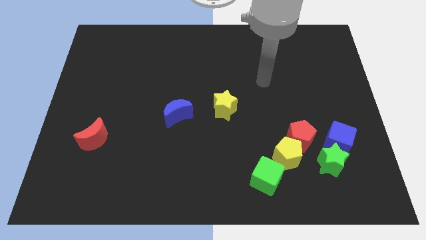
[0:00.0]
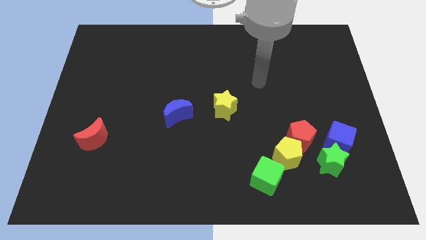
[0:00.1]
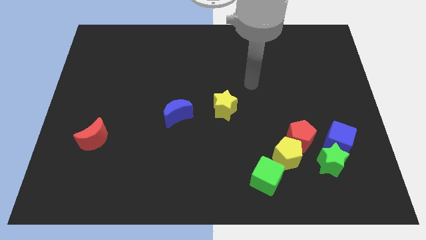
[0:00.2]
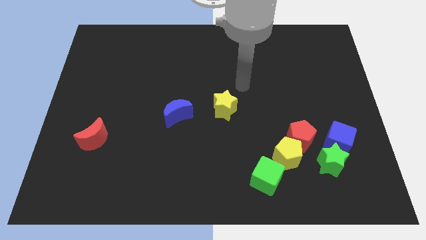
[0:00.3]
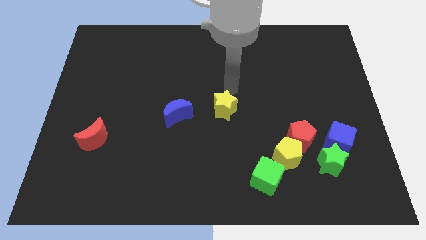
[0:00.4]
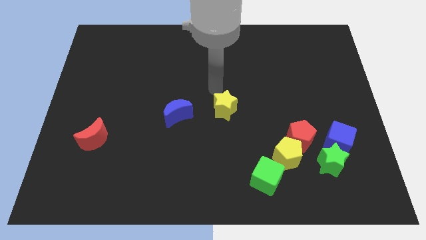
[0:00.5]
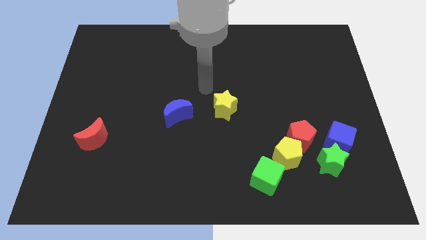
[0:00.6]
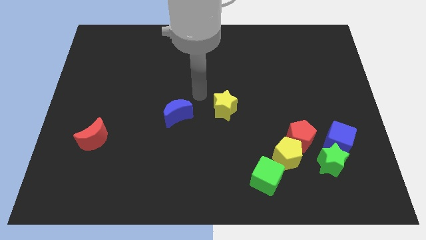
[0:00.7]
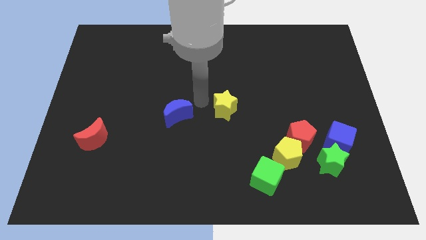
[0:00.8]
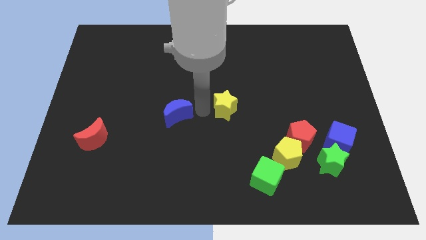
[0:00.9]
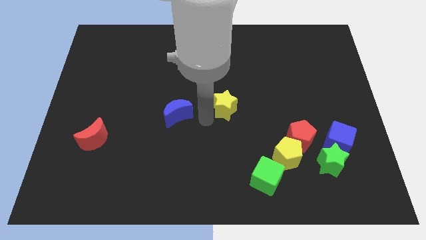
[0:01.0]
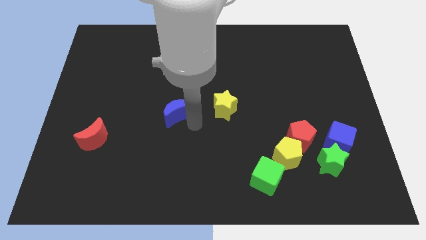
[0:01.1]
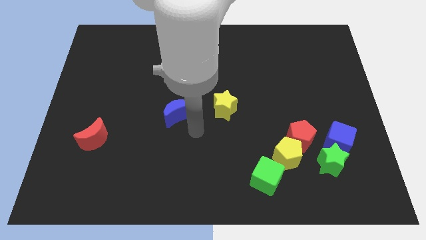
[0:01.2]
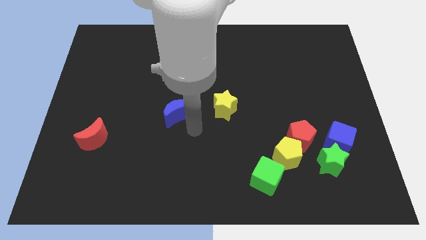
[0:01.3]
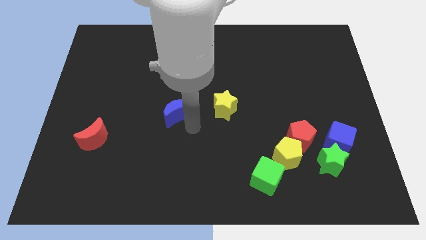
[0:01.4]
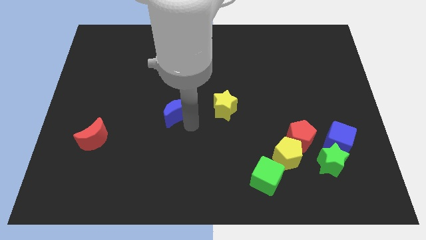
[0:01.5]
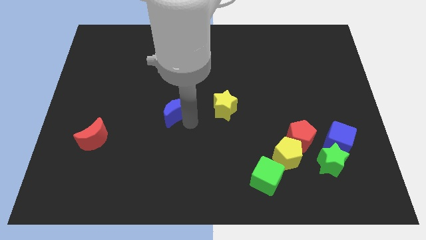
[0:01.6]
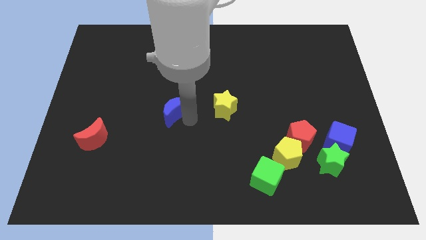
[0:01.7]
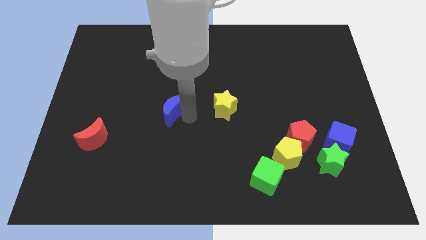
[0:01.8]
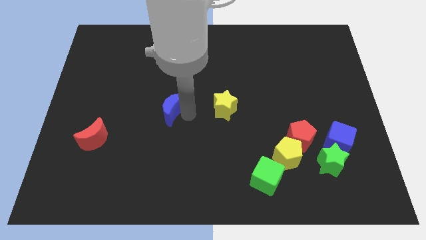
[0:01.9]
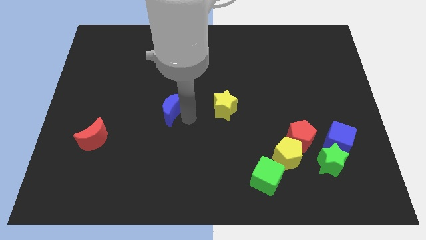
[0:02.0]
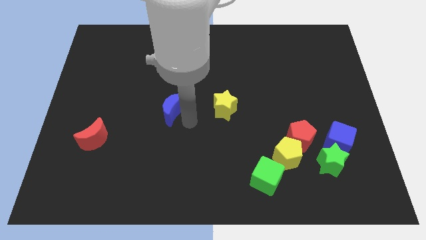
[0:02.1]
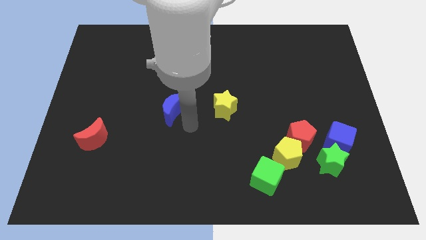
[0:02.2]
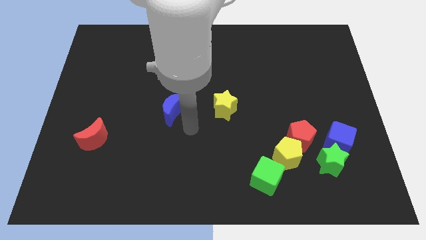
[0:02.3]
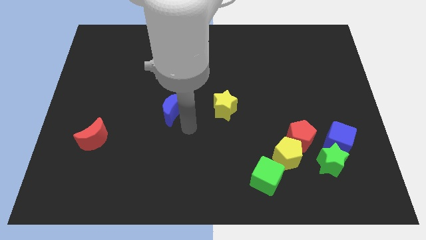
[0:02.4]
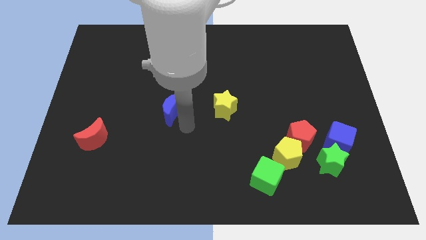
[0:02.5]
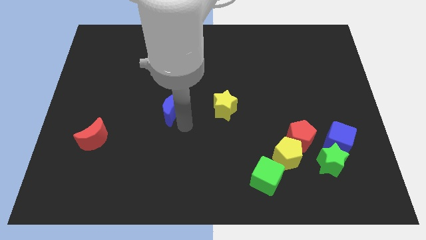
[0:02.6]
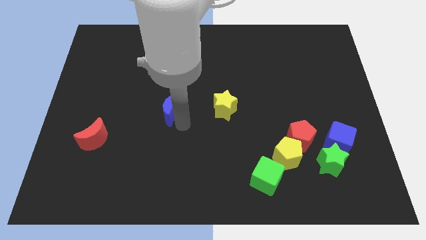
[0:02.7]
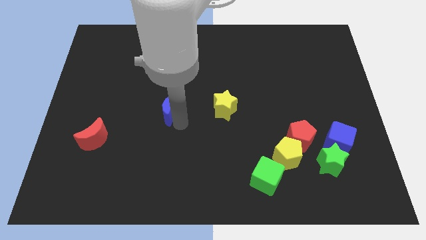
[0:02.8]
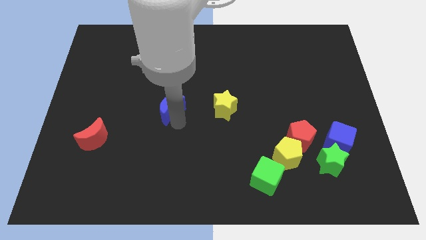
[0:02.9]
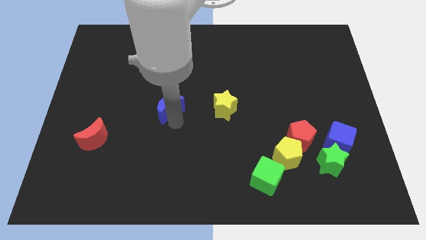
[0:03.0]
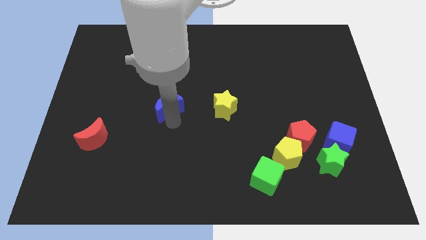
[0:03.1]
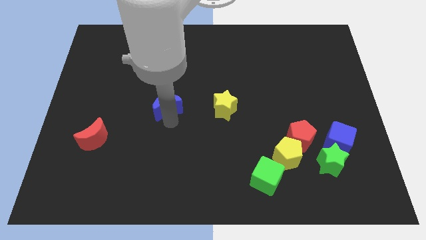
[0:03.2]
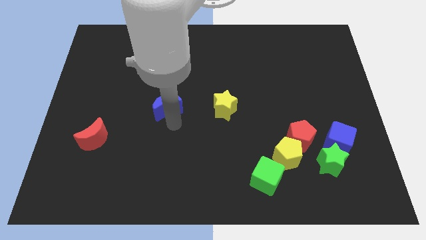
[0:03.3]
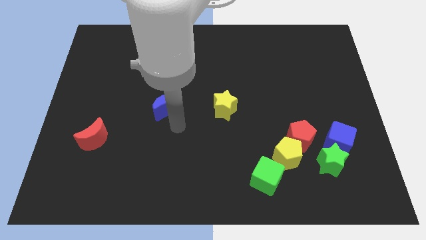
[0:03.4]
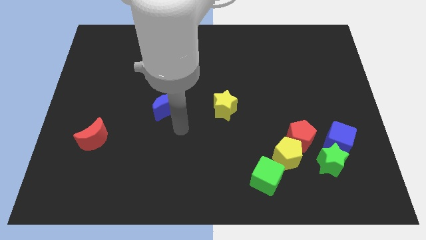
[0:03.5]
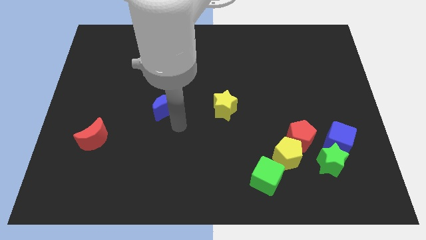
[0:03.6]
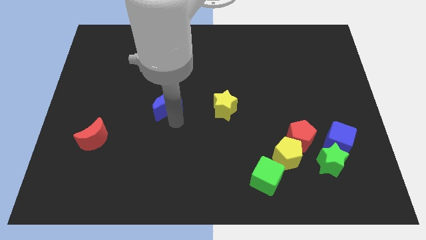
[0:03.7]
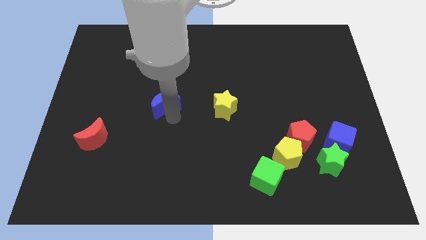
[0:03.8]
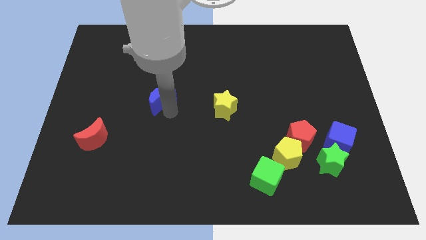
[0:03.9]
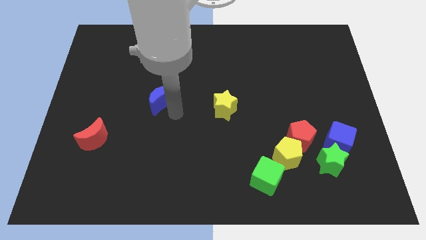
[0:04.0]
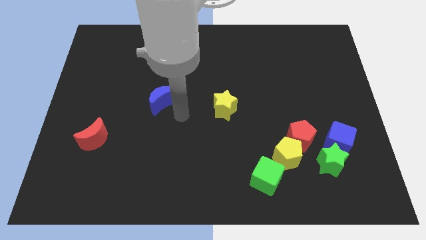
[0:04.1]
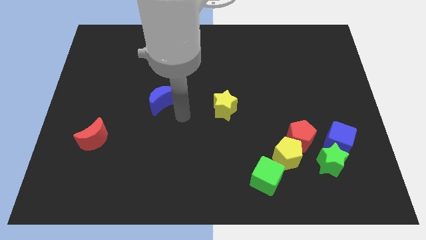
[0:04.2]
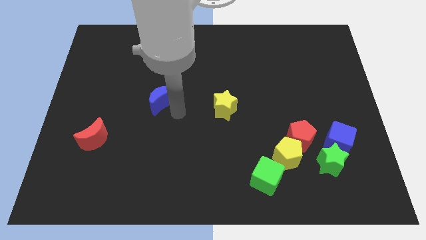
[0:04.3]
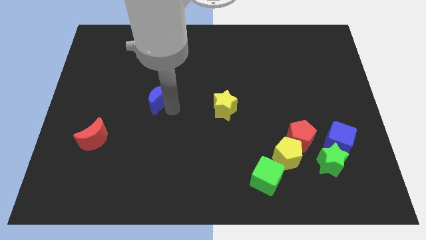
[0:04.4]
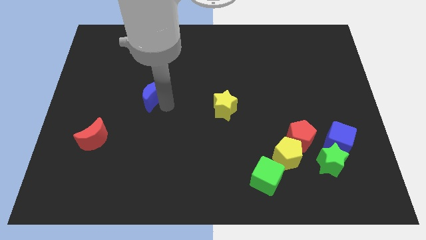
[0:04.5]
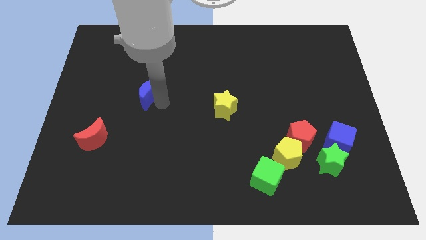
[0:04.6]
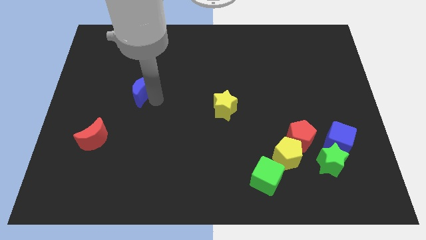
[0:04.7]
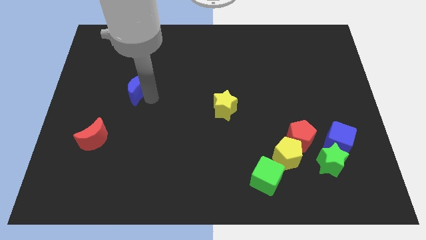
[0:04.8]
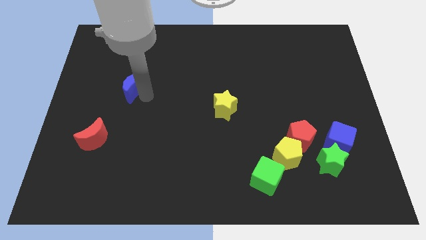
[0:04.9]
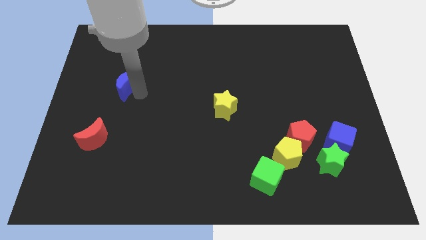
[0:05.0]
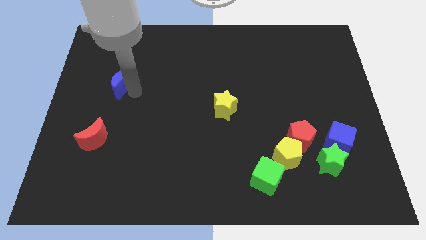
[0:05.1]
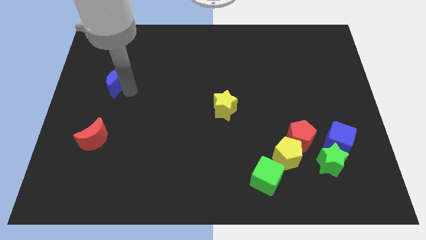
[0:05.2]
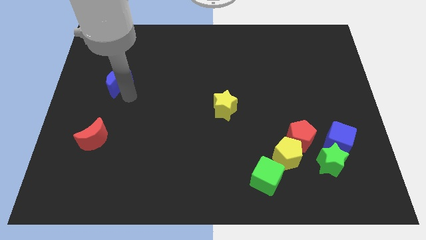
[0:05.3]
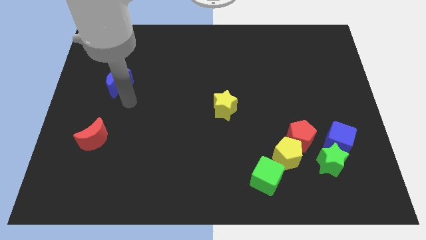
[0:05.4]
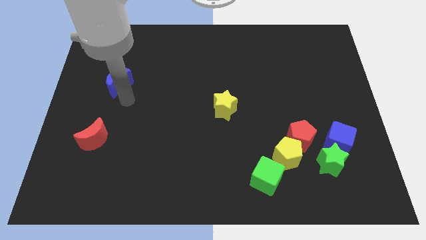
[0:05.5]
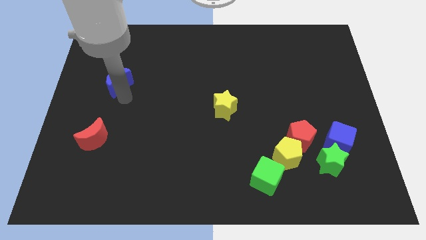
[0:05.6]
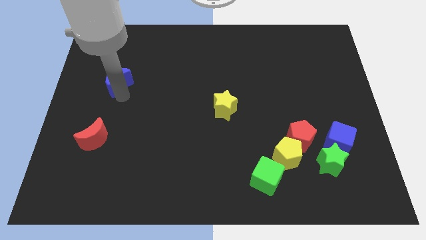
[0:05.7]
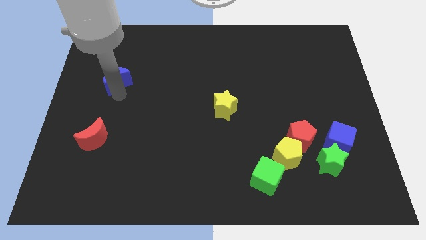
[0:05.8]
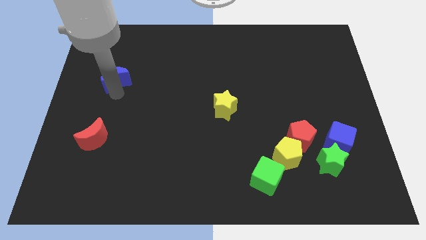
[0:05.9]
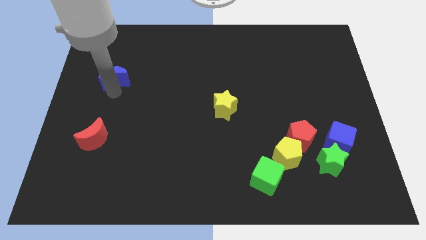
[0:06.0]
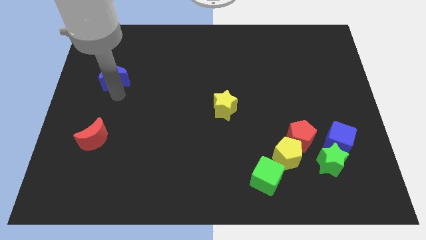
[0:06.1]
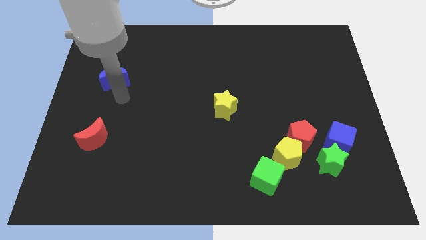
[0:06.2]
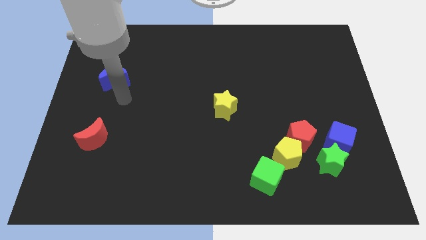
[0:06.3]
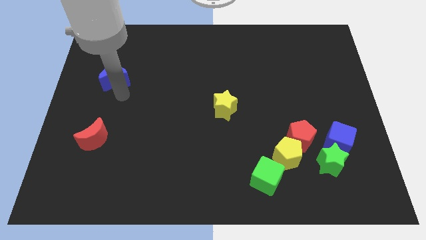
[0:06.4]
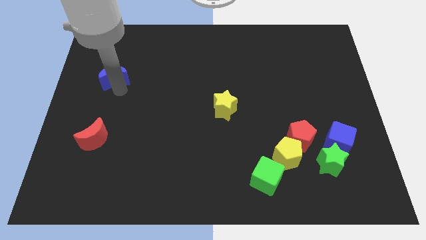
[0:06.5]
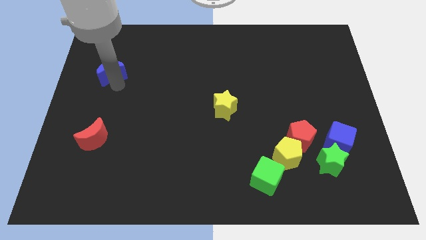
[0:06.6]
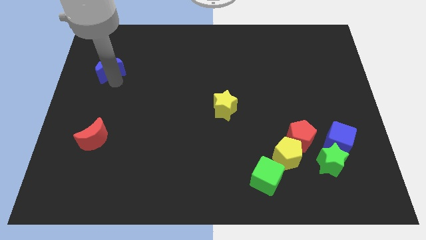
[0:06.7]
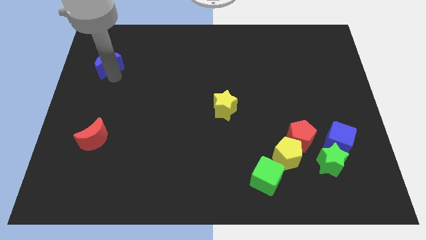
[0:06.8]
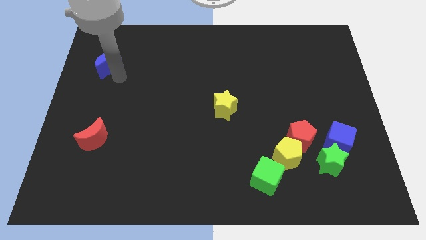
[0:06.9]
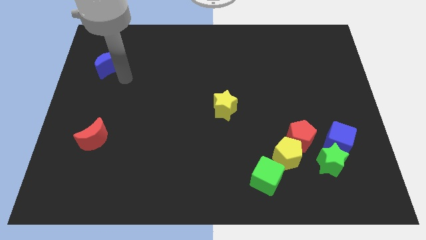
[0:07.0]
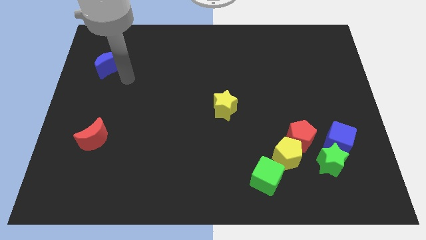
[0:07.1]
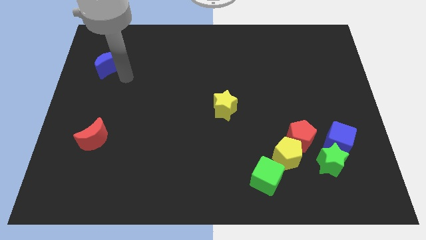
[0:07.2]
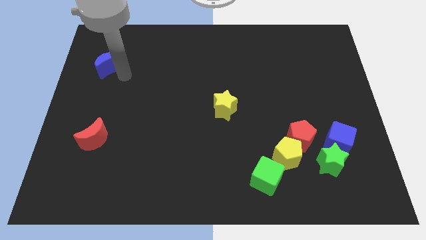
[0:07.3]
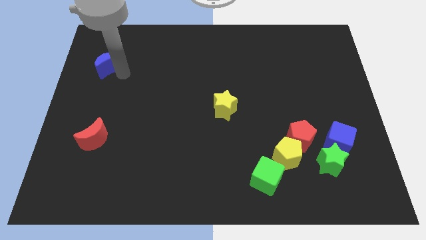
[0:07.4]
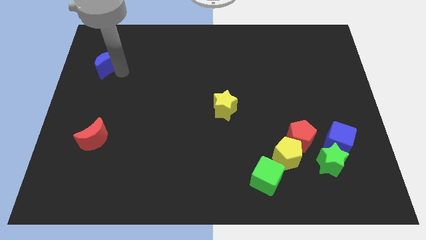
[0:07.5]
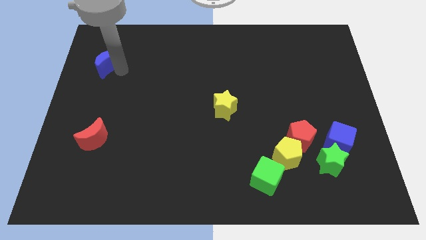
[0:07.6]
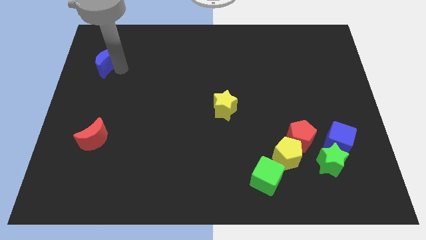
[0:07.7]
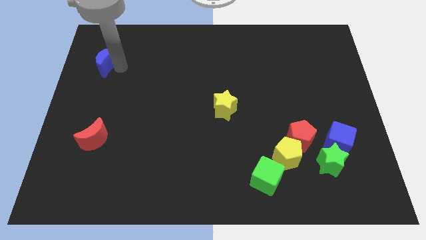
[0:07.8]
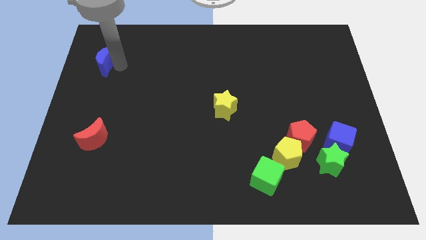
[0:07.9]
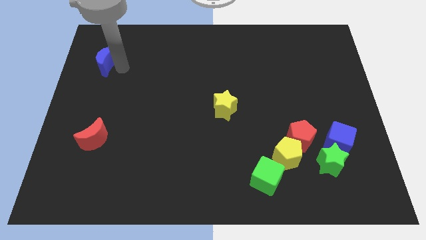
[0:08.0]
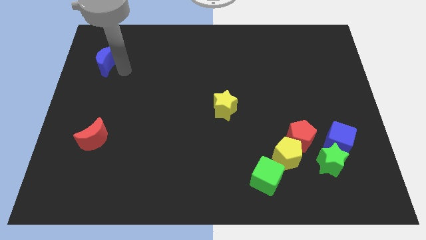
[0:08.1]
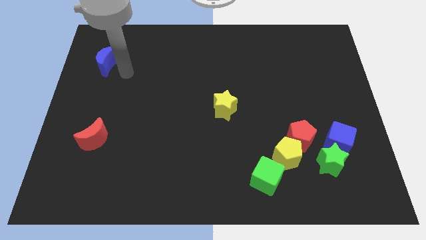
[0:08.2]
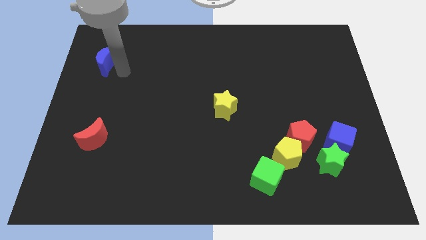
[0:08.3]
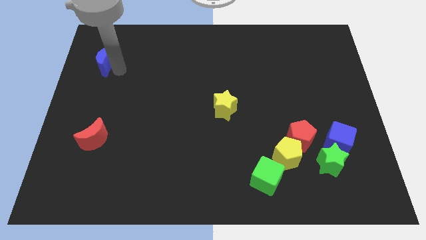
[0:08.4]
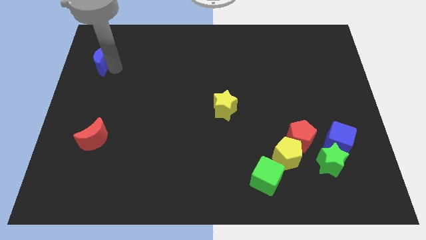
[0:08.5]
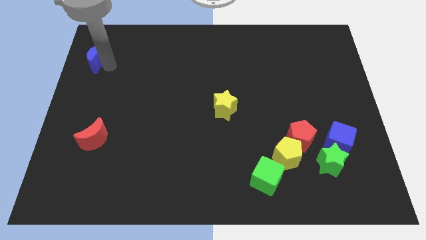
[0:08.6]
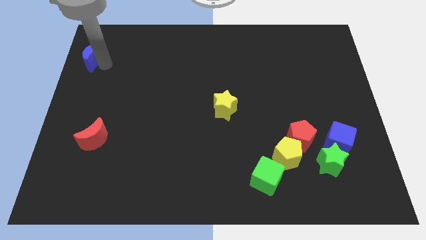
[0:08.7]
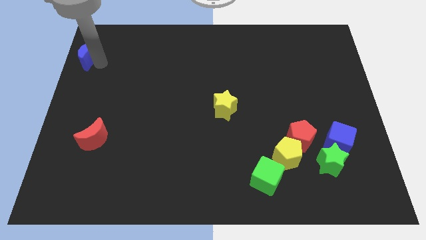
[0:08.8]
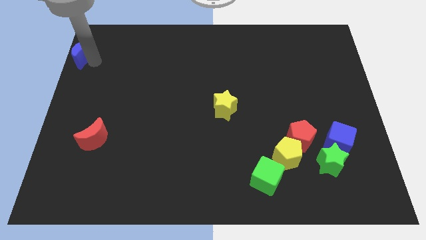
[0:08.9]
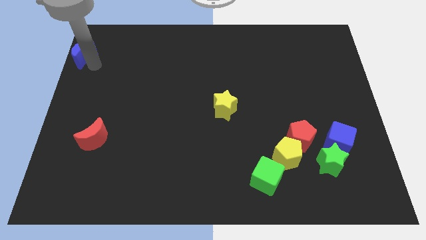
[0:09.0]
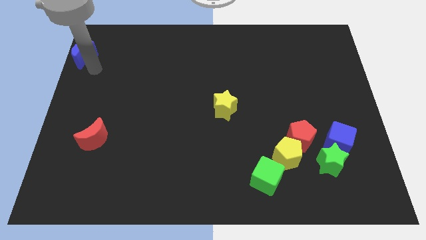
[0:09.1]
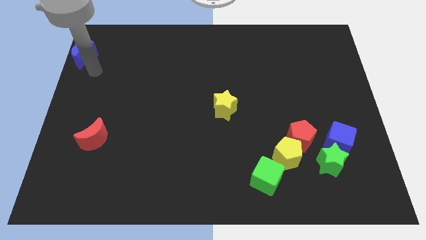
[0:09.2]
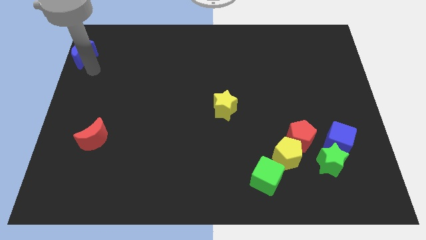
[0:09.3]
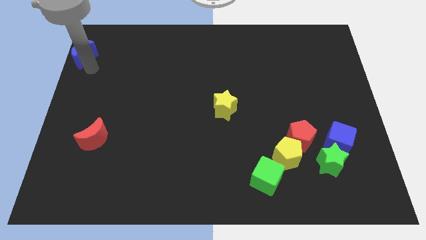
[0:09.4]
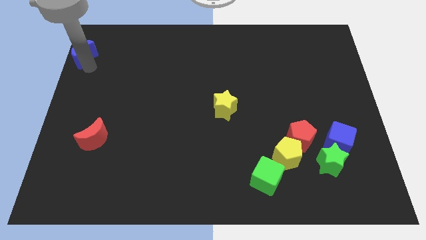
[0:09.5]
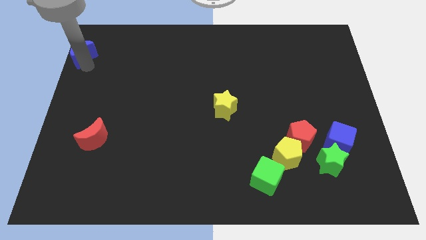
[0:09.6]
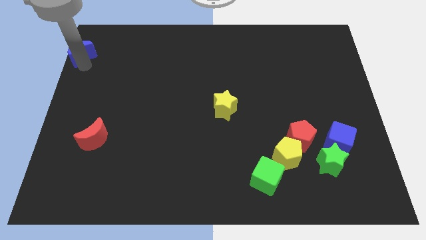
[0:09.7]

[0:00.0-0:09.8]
slide the blue moon to the top left corner
